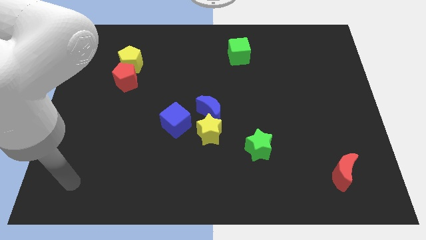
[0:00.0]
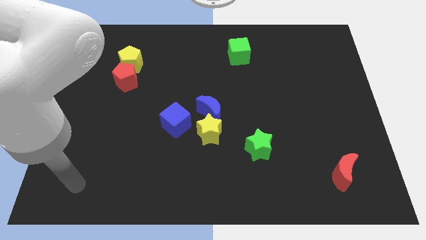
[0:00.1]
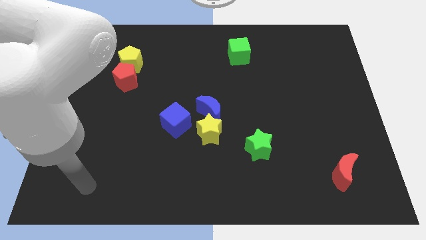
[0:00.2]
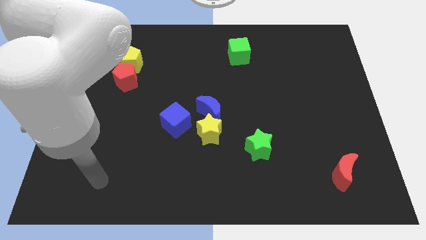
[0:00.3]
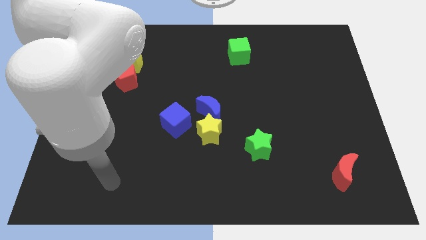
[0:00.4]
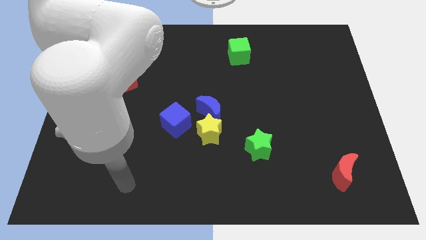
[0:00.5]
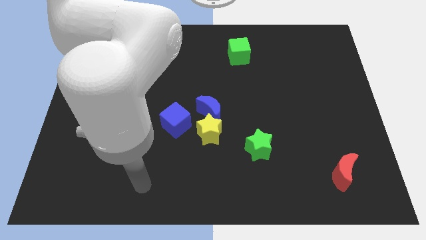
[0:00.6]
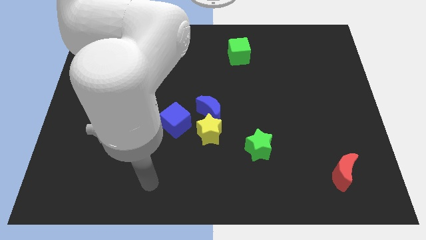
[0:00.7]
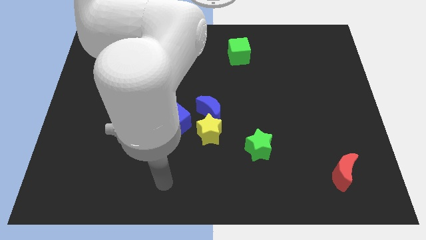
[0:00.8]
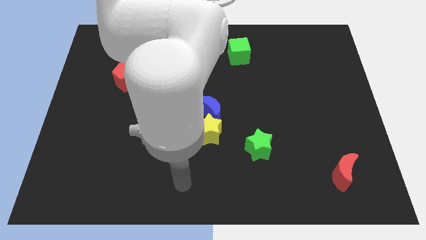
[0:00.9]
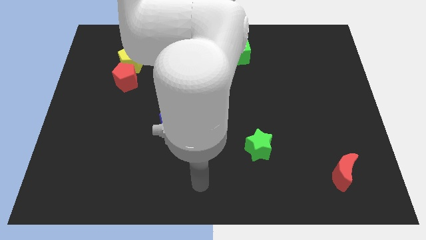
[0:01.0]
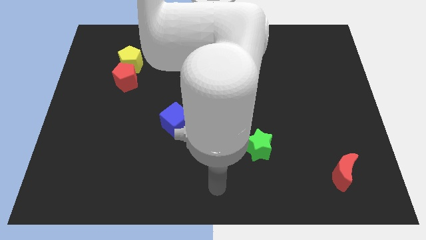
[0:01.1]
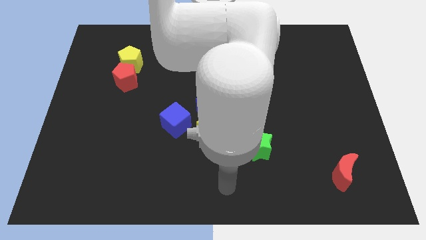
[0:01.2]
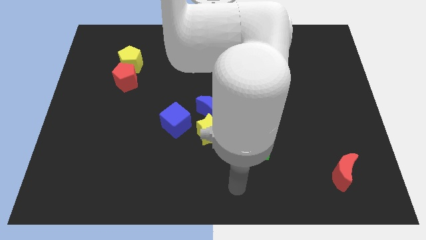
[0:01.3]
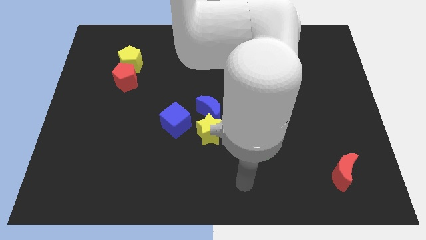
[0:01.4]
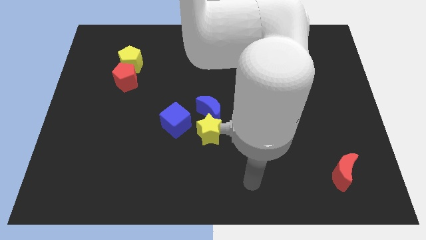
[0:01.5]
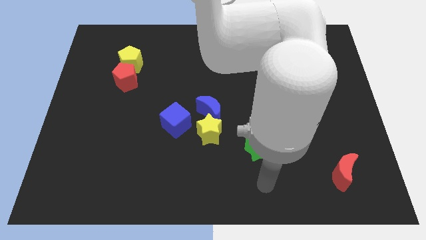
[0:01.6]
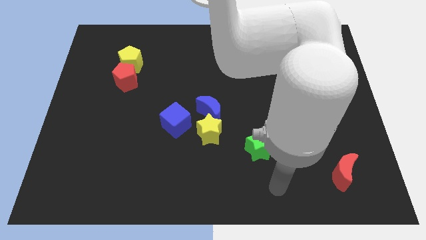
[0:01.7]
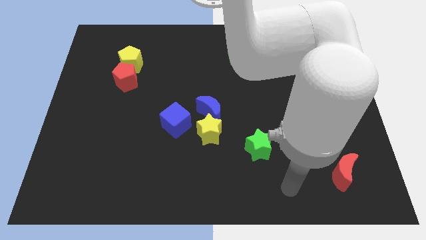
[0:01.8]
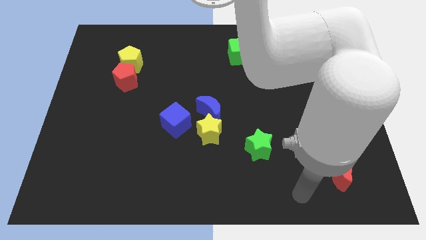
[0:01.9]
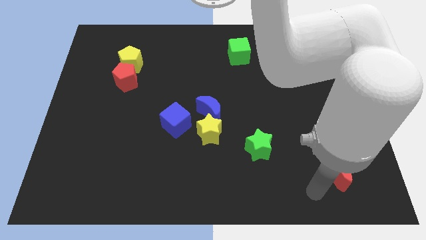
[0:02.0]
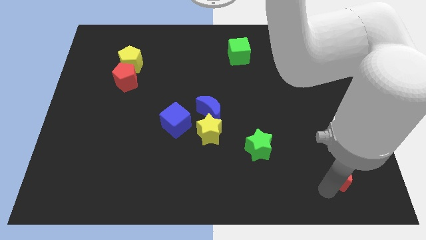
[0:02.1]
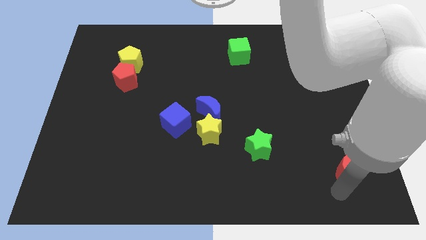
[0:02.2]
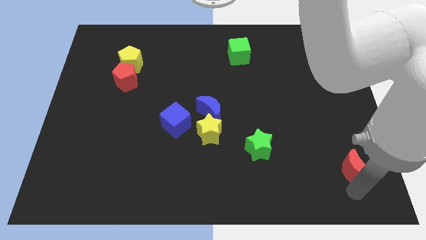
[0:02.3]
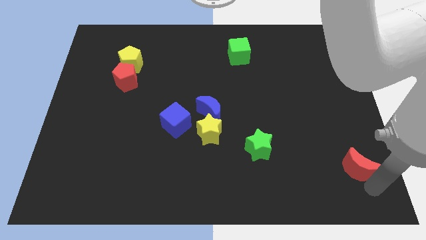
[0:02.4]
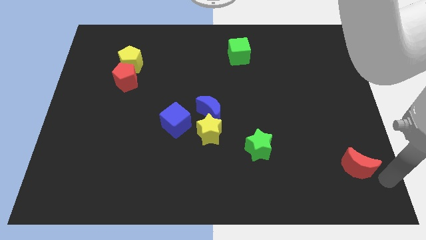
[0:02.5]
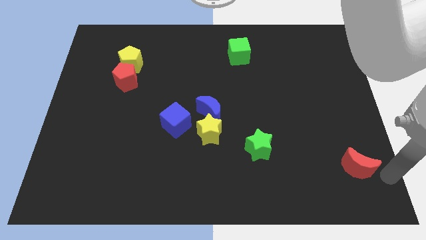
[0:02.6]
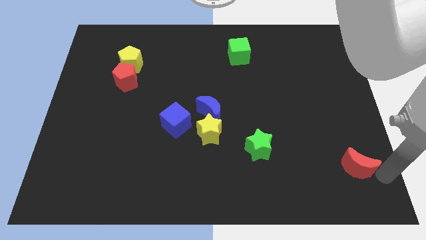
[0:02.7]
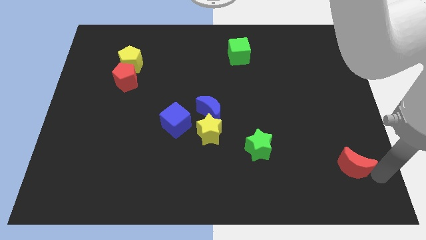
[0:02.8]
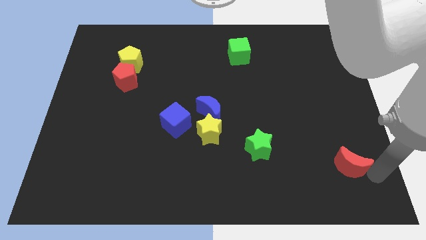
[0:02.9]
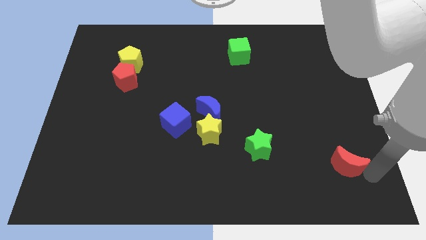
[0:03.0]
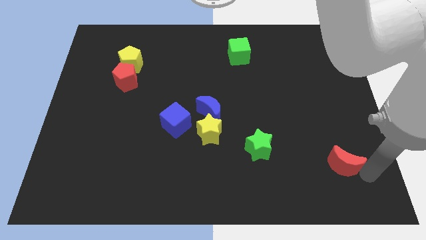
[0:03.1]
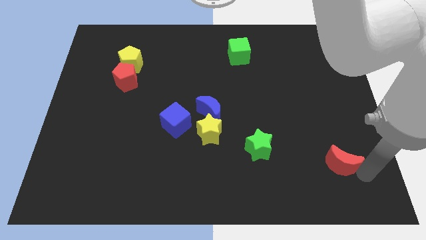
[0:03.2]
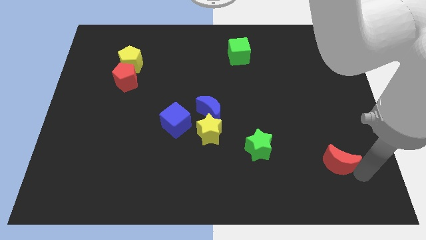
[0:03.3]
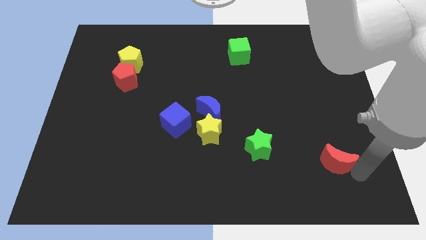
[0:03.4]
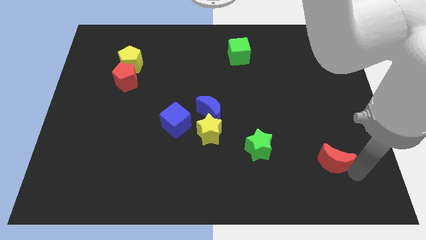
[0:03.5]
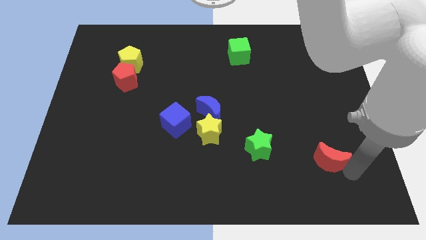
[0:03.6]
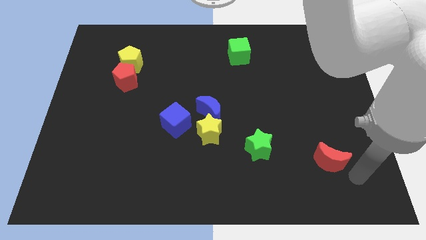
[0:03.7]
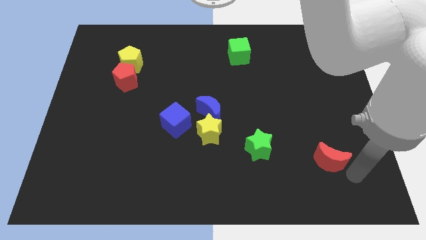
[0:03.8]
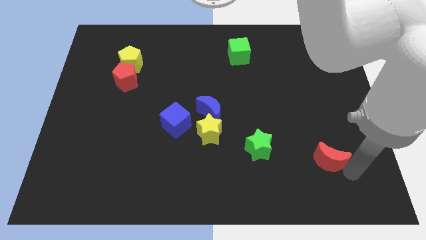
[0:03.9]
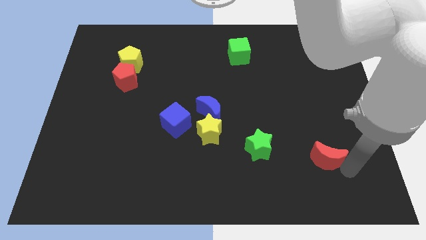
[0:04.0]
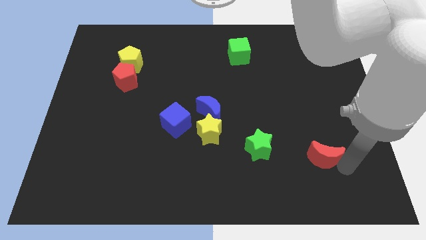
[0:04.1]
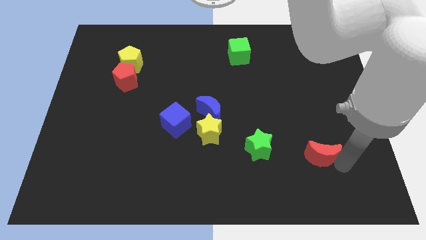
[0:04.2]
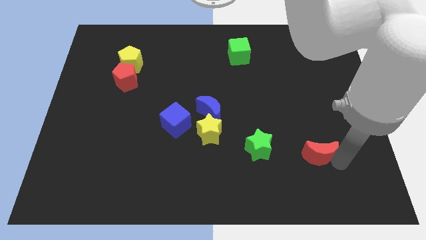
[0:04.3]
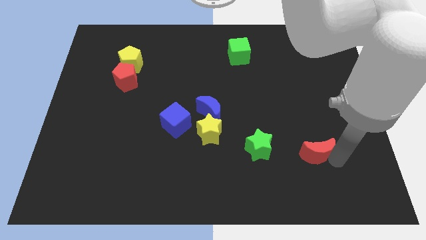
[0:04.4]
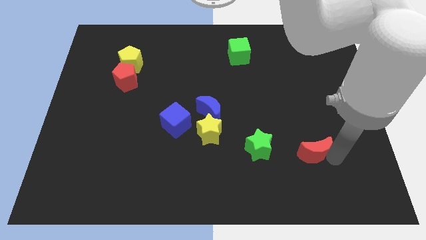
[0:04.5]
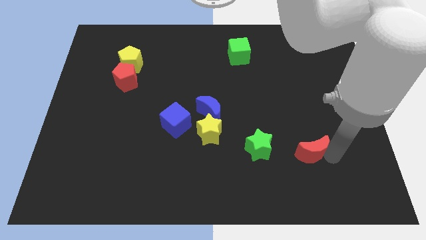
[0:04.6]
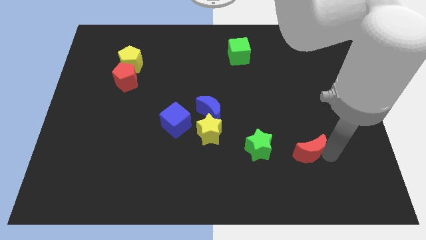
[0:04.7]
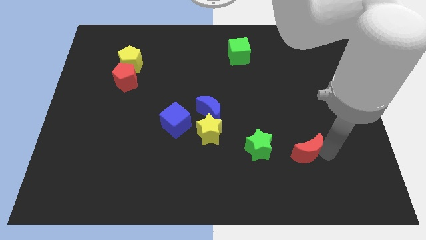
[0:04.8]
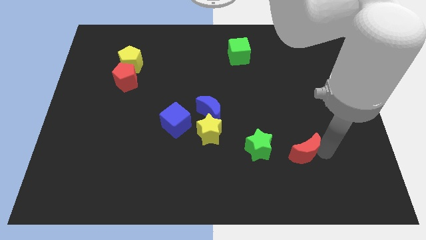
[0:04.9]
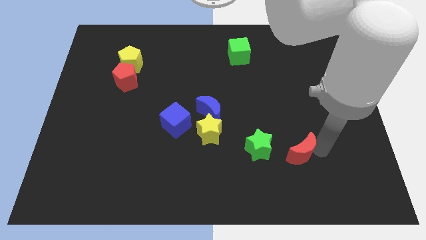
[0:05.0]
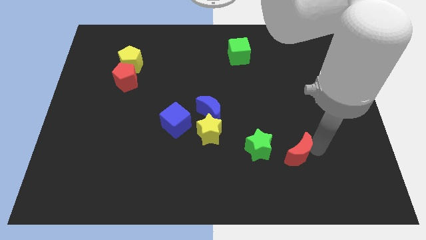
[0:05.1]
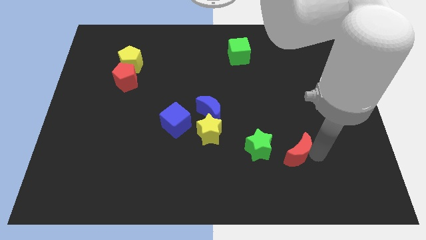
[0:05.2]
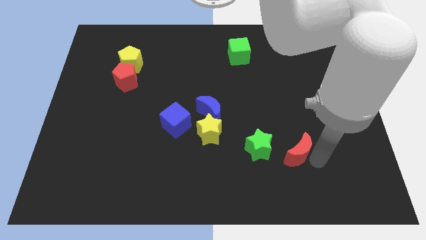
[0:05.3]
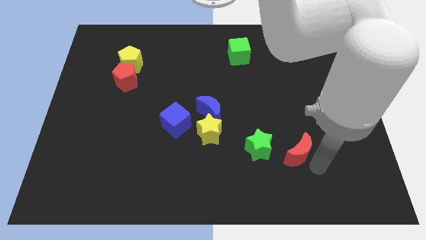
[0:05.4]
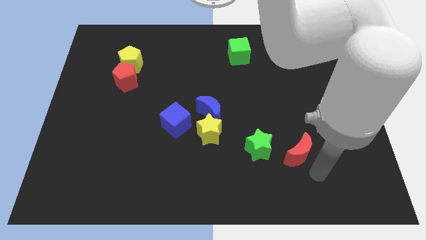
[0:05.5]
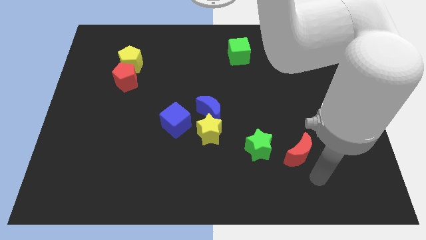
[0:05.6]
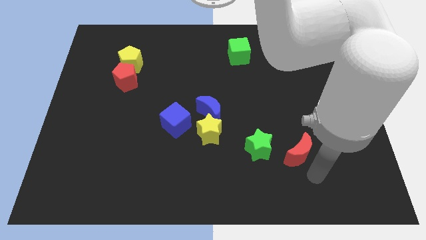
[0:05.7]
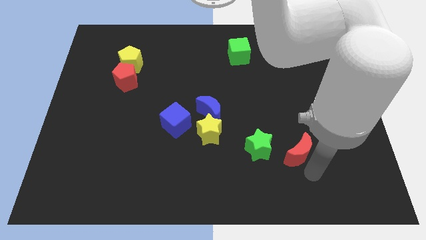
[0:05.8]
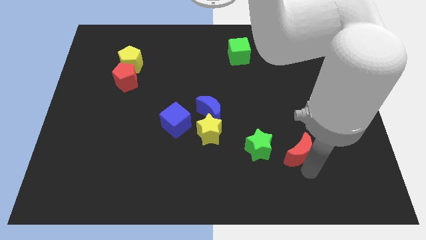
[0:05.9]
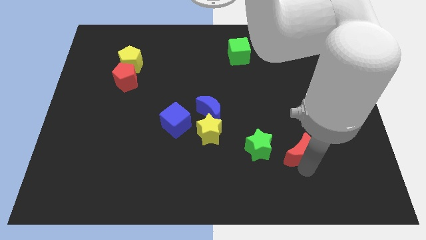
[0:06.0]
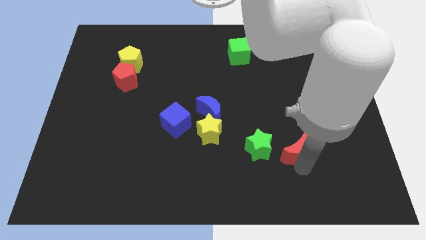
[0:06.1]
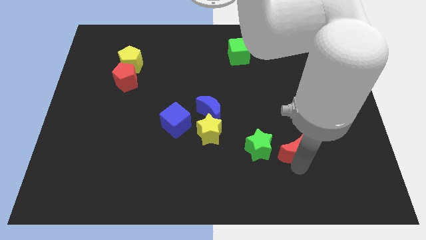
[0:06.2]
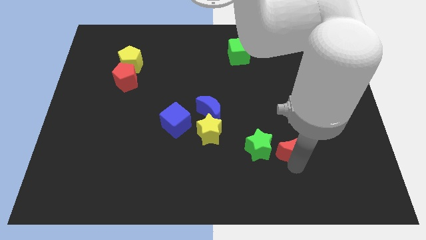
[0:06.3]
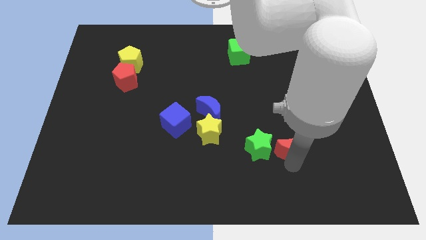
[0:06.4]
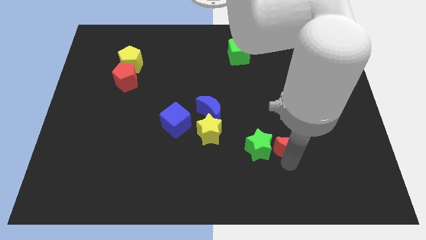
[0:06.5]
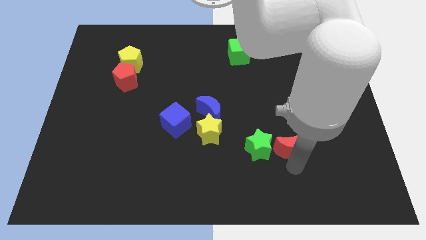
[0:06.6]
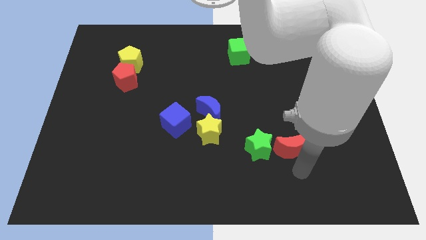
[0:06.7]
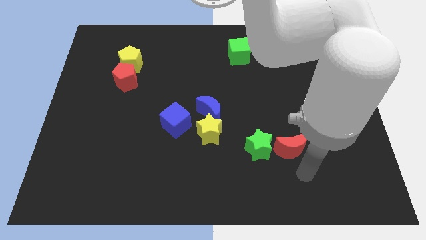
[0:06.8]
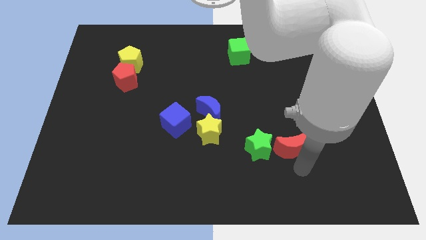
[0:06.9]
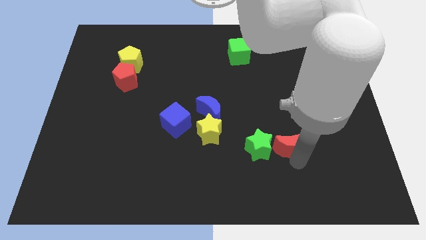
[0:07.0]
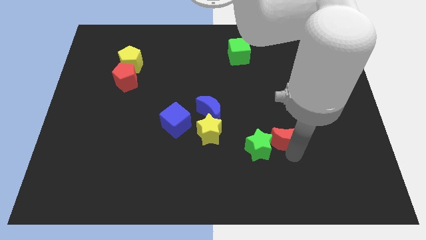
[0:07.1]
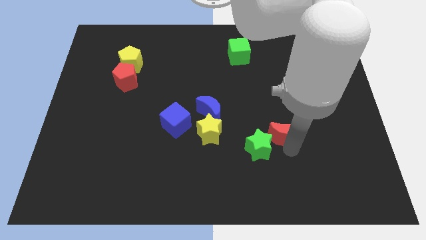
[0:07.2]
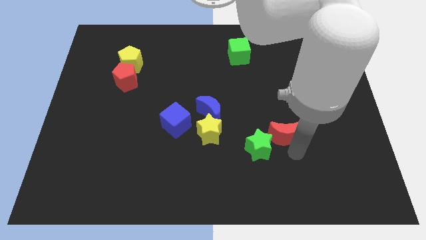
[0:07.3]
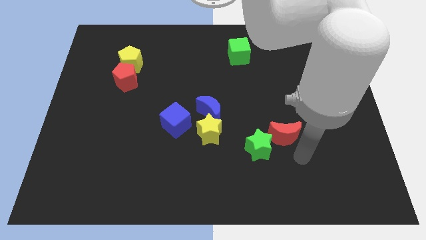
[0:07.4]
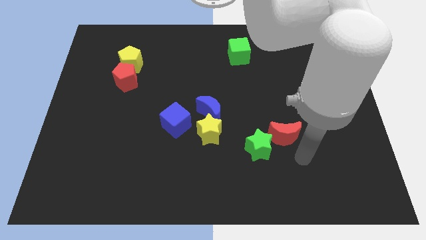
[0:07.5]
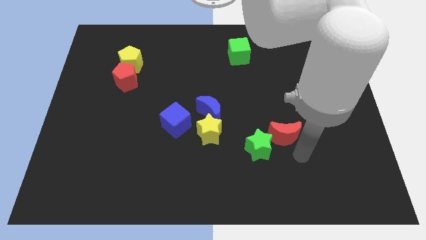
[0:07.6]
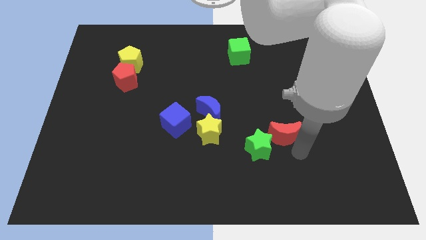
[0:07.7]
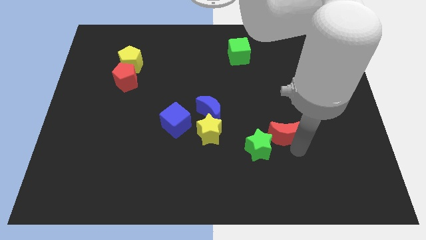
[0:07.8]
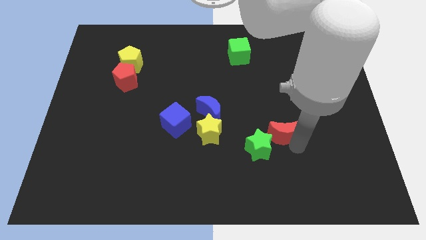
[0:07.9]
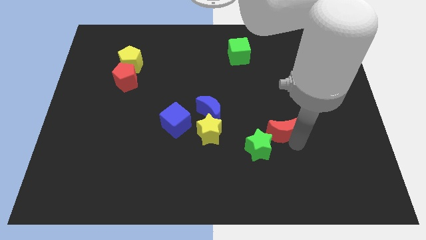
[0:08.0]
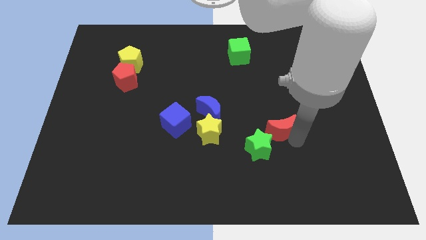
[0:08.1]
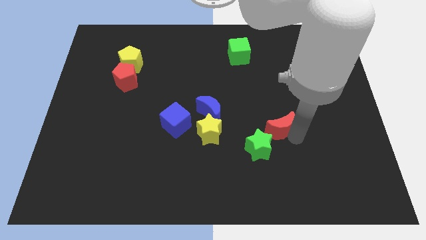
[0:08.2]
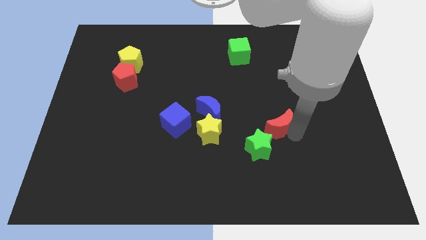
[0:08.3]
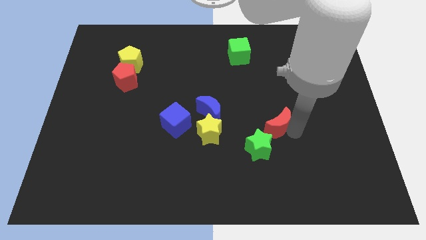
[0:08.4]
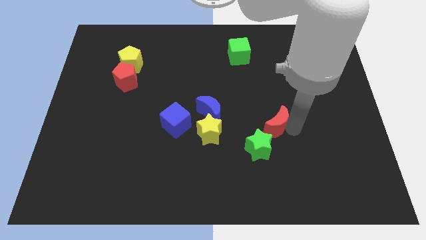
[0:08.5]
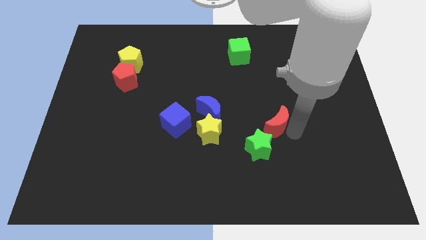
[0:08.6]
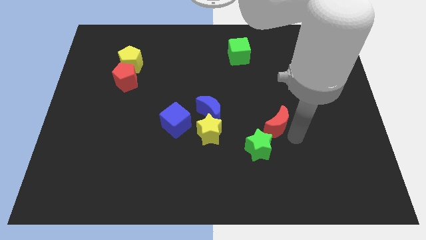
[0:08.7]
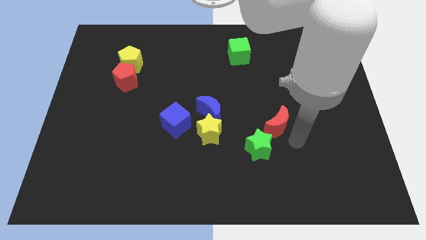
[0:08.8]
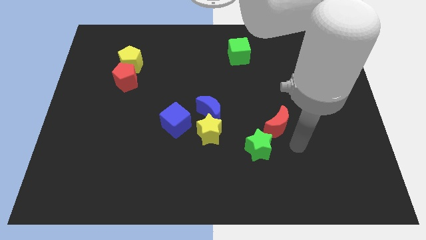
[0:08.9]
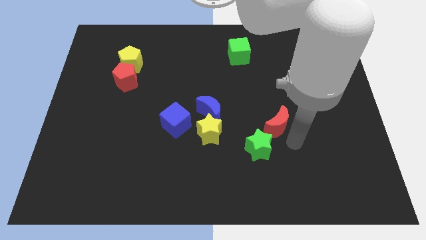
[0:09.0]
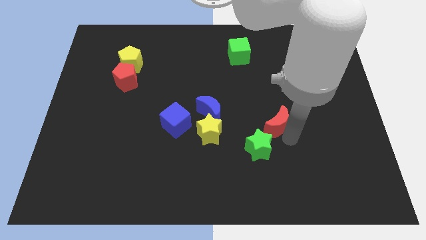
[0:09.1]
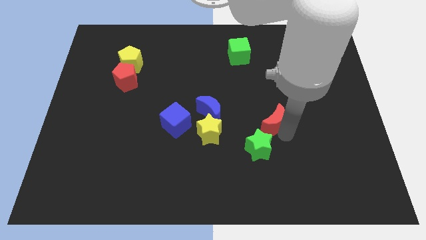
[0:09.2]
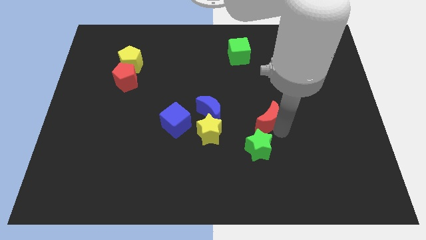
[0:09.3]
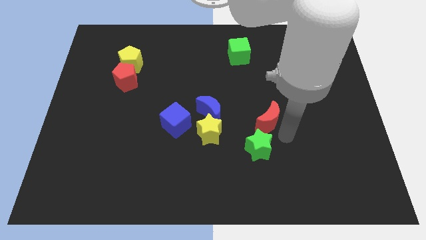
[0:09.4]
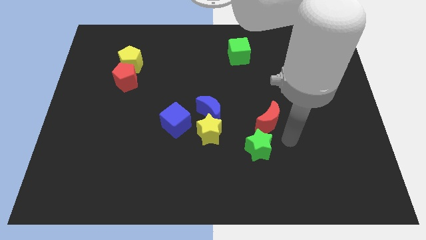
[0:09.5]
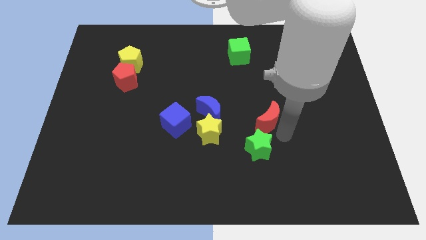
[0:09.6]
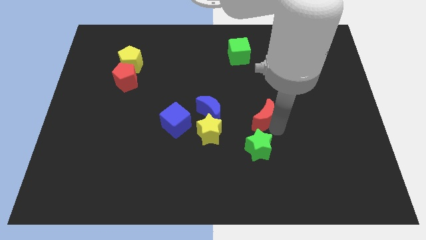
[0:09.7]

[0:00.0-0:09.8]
push the red moon up and left
